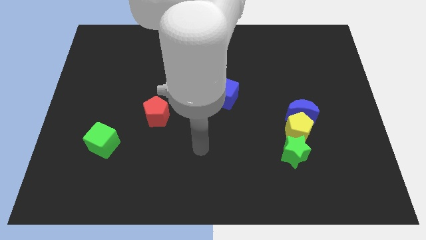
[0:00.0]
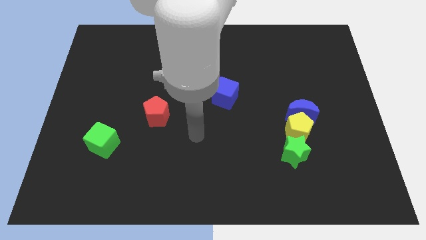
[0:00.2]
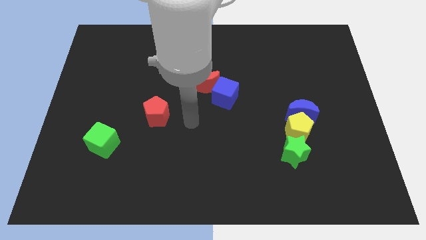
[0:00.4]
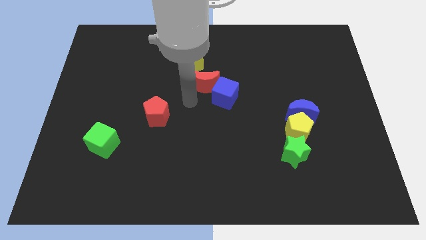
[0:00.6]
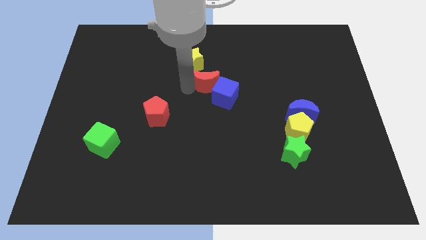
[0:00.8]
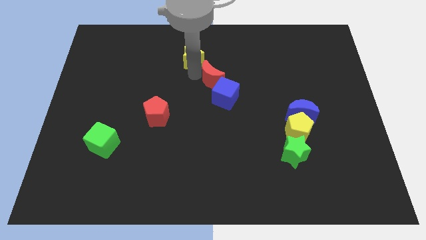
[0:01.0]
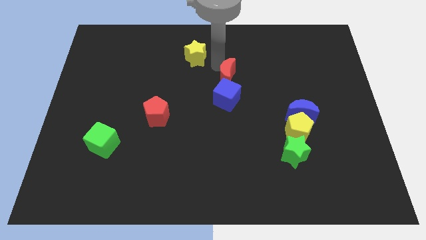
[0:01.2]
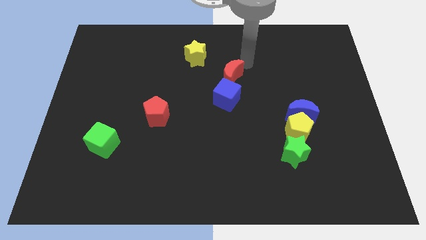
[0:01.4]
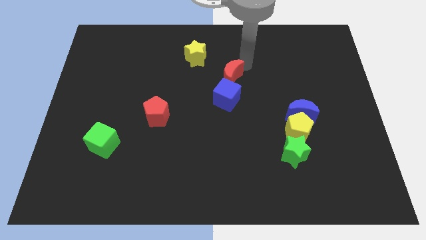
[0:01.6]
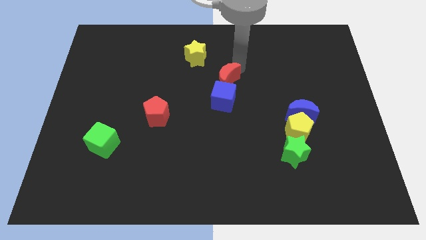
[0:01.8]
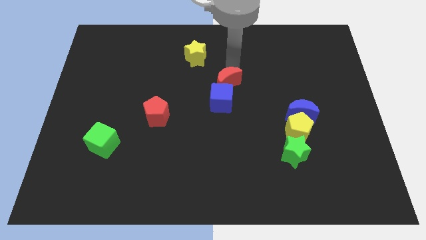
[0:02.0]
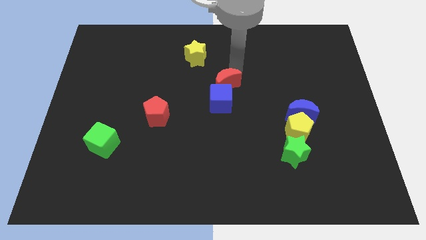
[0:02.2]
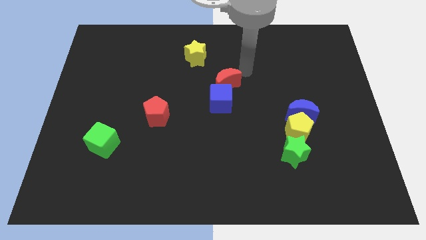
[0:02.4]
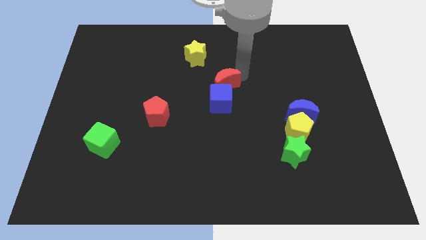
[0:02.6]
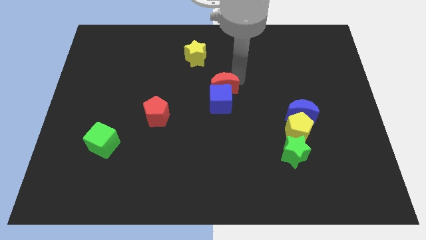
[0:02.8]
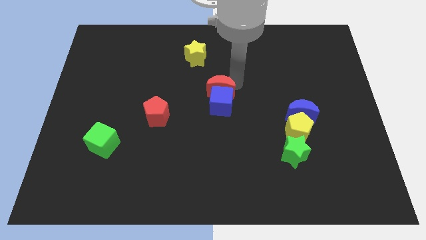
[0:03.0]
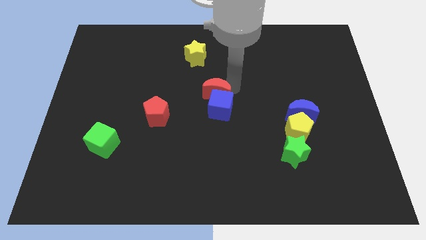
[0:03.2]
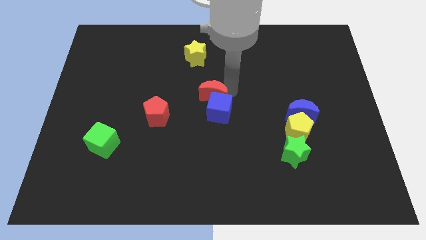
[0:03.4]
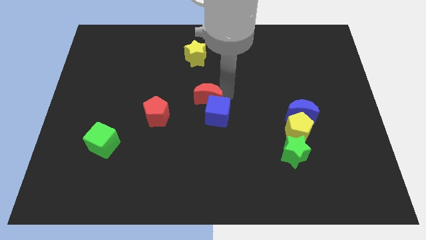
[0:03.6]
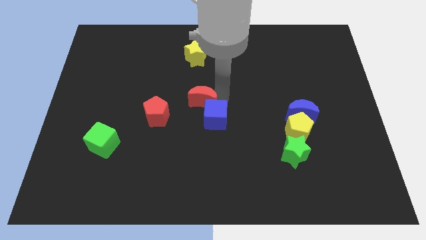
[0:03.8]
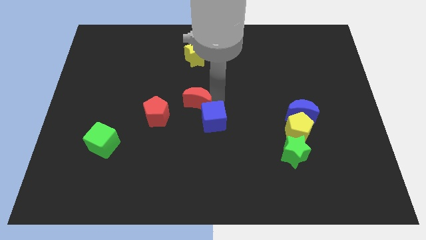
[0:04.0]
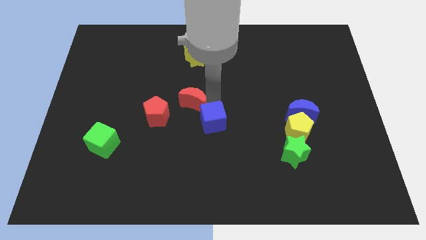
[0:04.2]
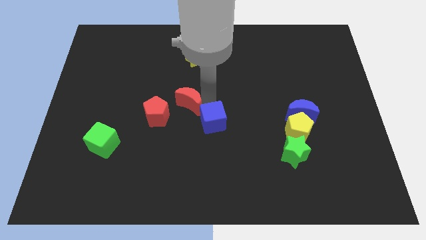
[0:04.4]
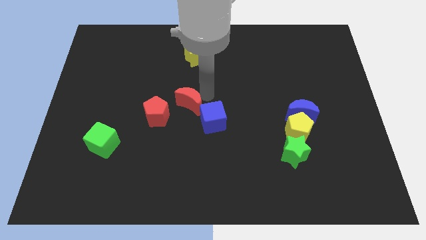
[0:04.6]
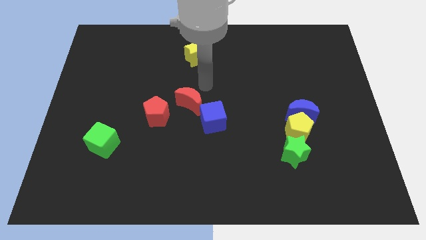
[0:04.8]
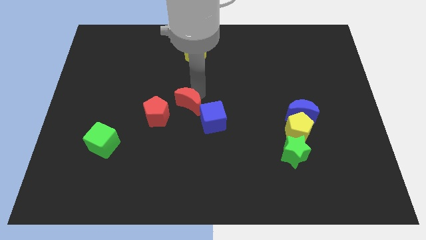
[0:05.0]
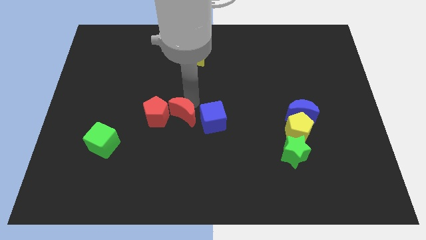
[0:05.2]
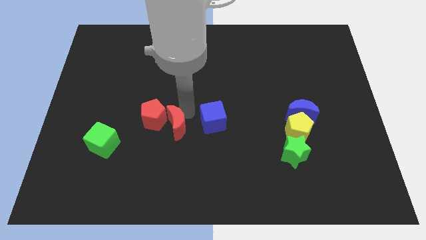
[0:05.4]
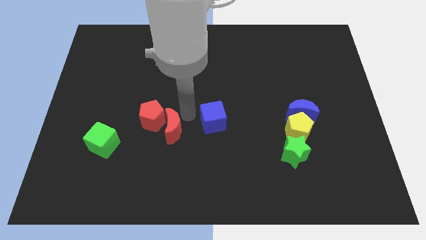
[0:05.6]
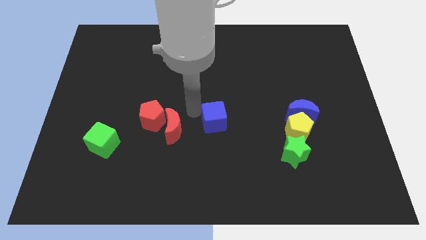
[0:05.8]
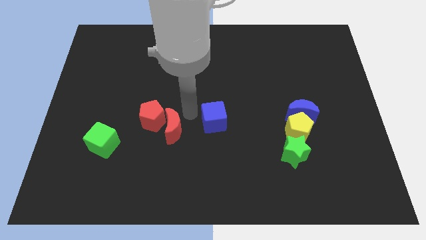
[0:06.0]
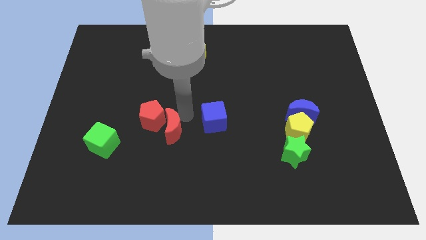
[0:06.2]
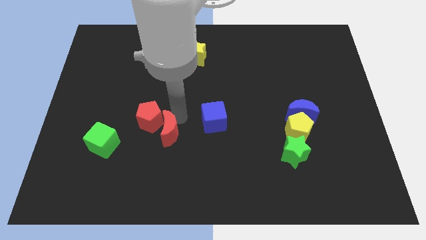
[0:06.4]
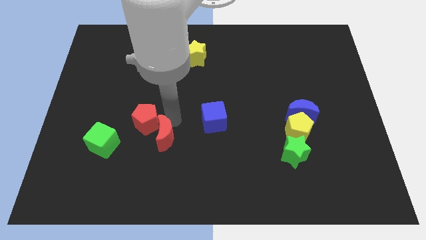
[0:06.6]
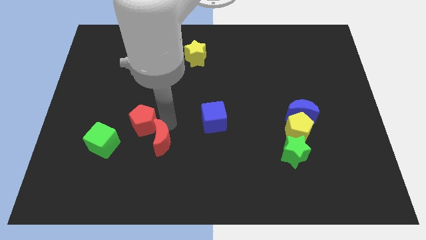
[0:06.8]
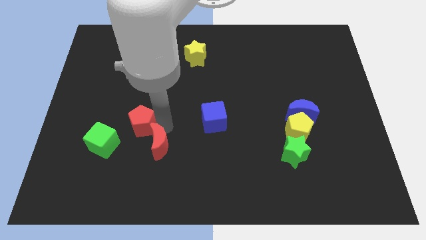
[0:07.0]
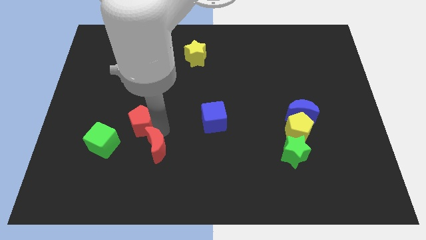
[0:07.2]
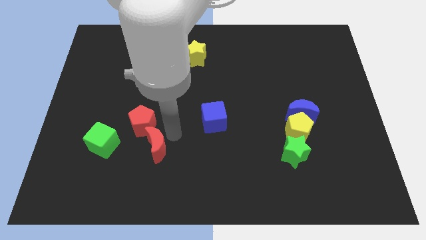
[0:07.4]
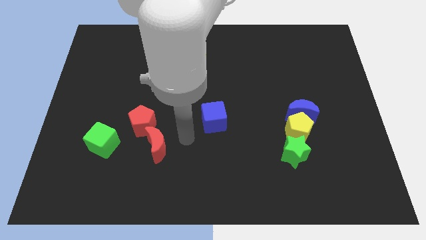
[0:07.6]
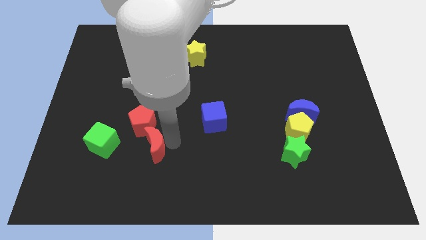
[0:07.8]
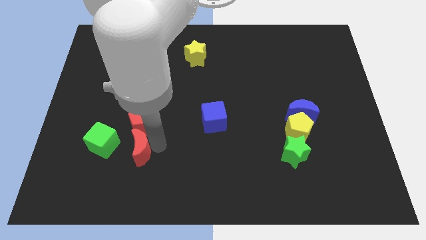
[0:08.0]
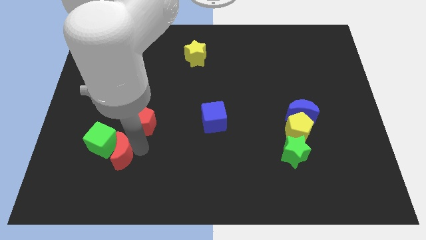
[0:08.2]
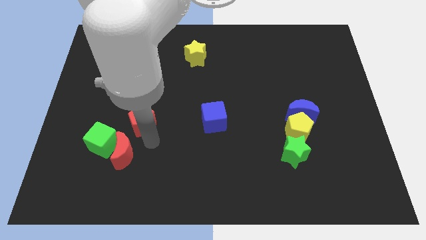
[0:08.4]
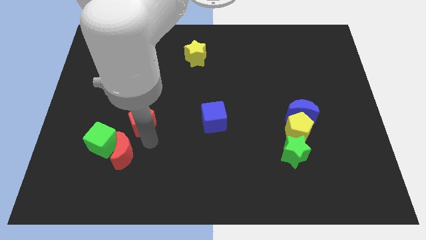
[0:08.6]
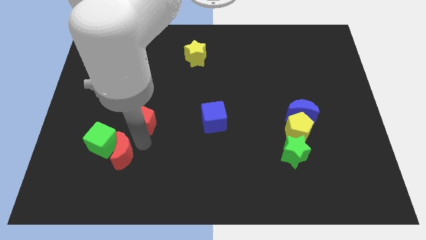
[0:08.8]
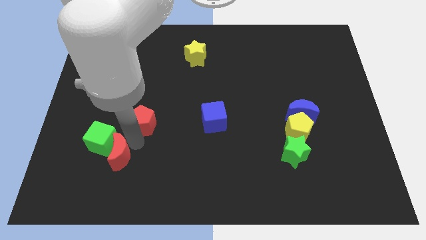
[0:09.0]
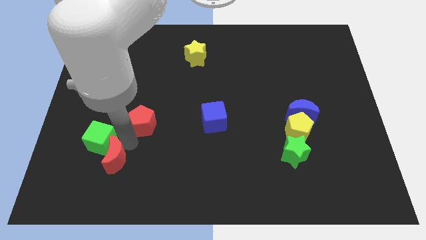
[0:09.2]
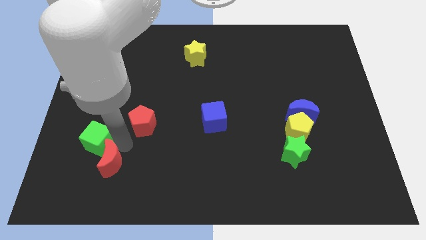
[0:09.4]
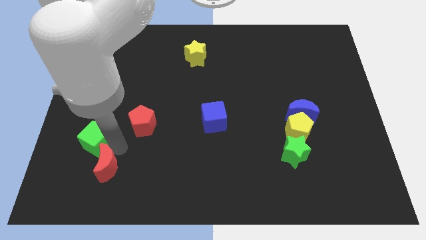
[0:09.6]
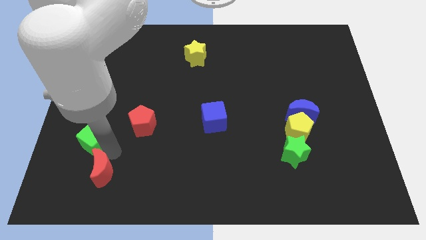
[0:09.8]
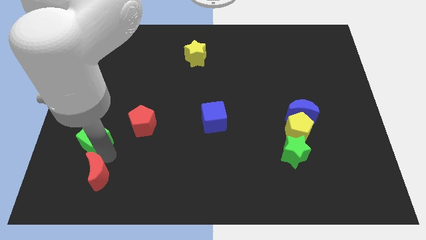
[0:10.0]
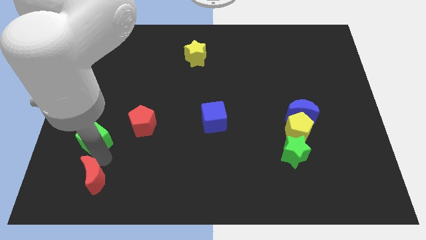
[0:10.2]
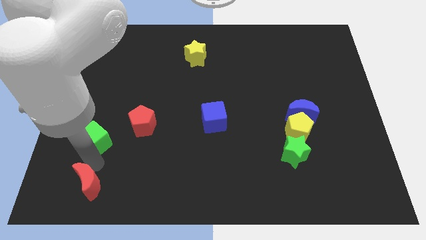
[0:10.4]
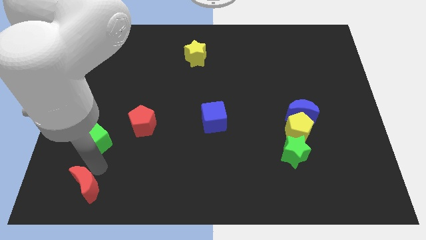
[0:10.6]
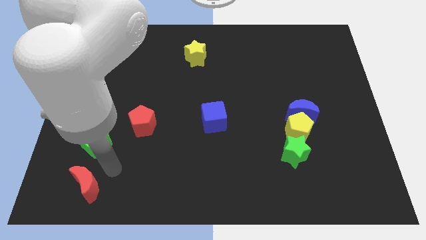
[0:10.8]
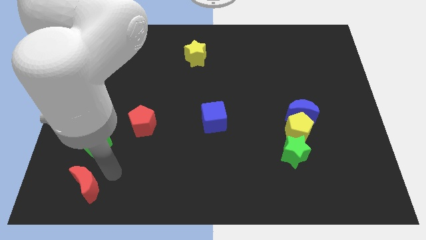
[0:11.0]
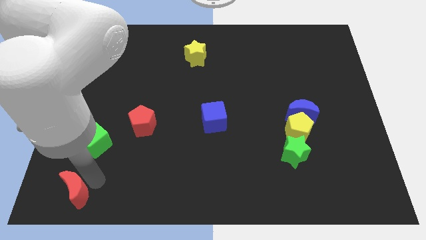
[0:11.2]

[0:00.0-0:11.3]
push the red moon to the bottom left
